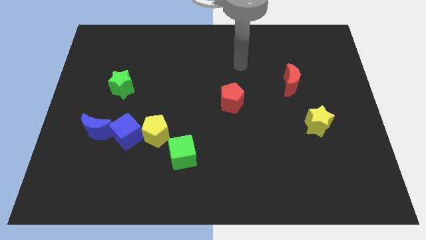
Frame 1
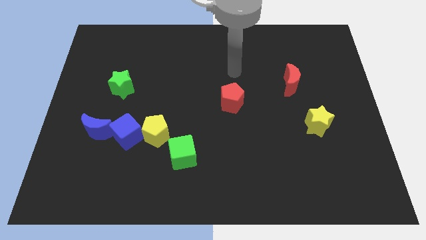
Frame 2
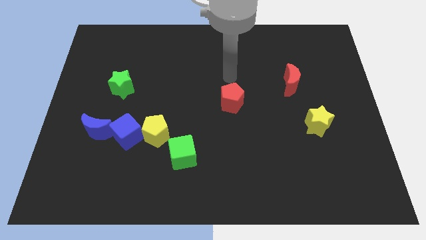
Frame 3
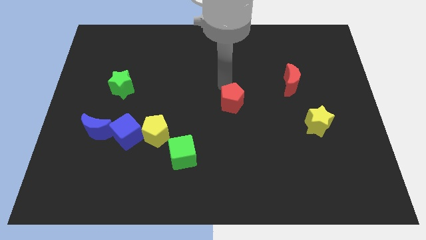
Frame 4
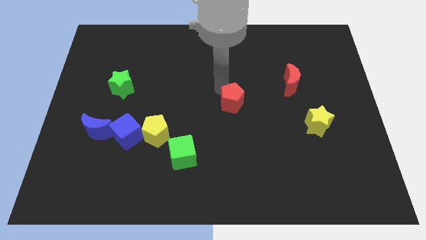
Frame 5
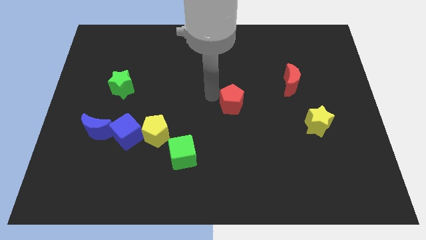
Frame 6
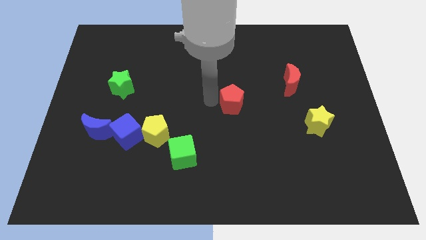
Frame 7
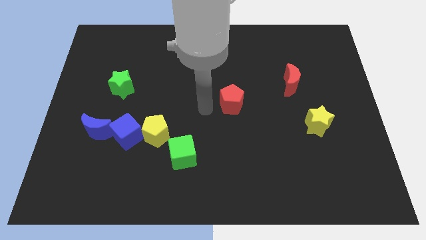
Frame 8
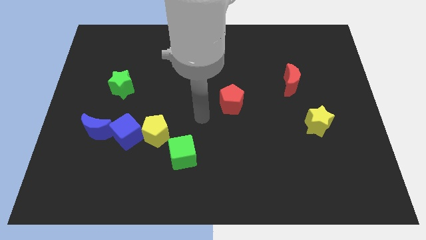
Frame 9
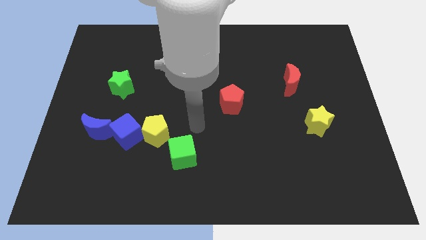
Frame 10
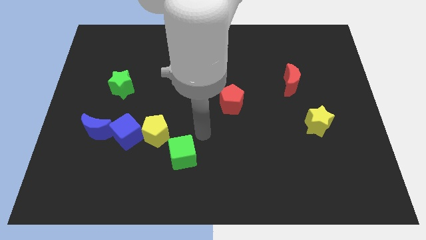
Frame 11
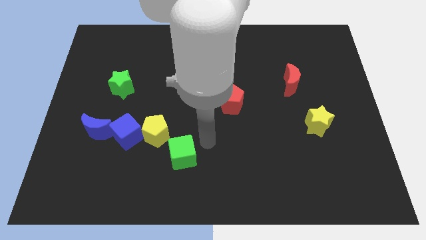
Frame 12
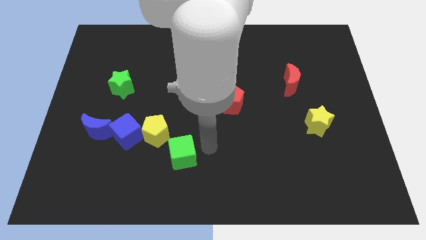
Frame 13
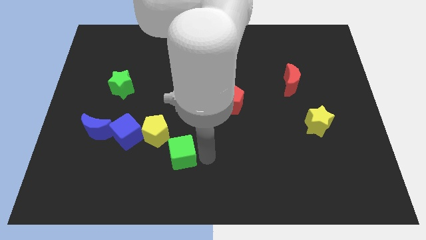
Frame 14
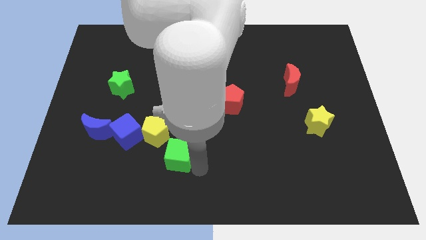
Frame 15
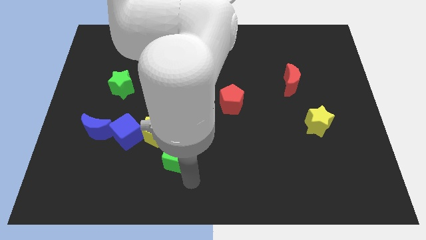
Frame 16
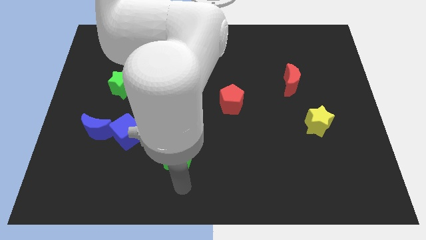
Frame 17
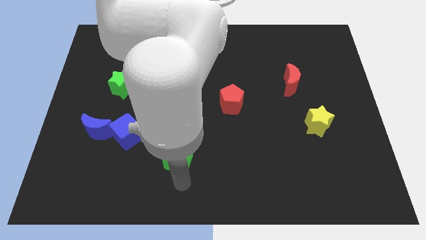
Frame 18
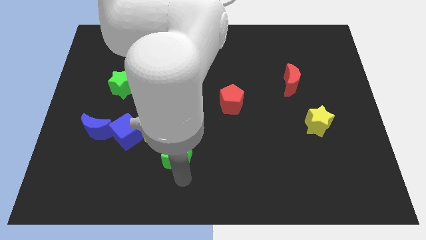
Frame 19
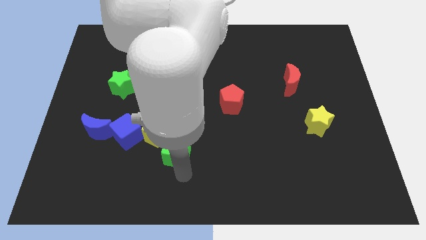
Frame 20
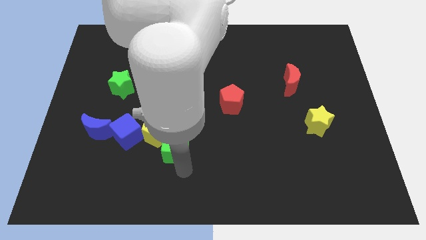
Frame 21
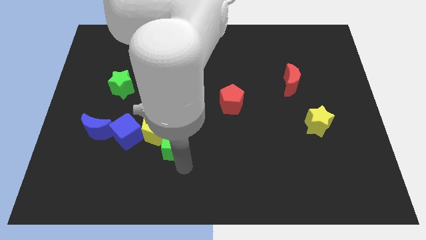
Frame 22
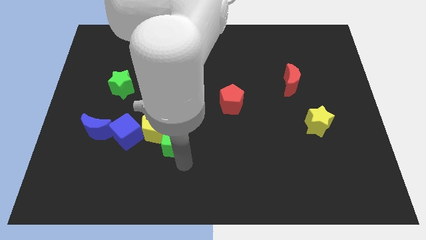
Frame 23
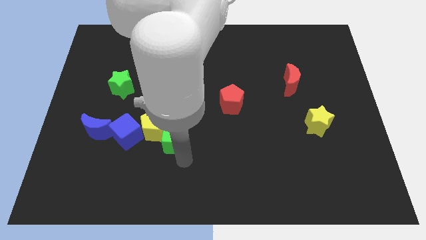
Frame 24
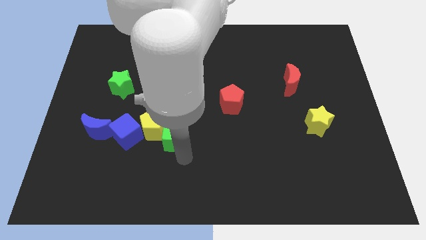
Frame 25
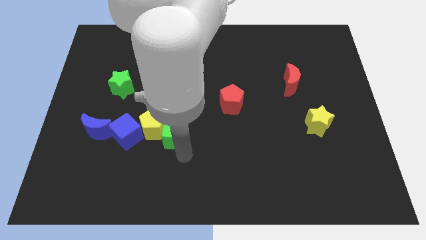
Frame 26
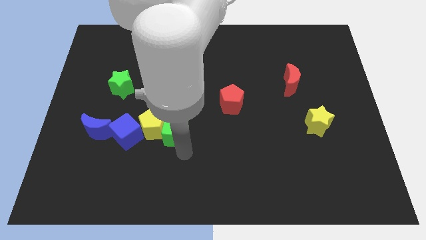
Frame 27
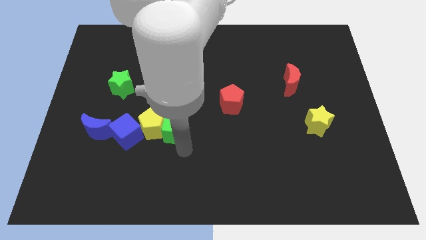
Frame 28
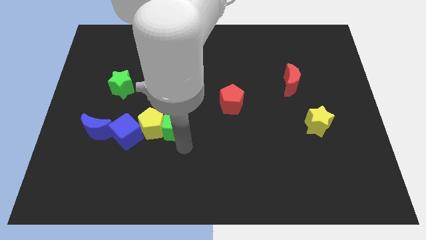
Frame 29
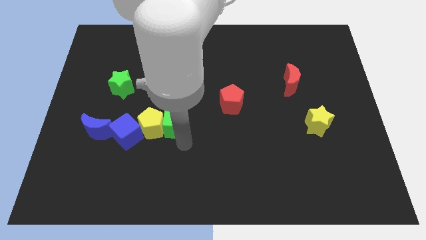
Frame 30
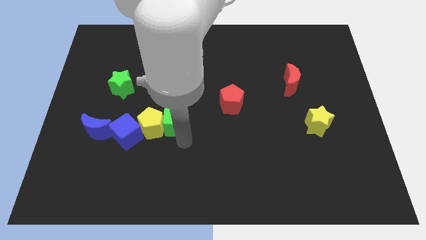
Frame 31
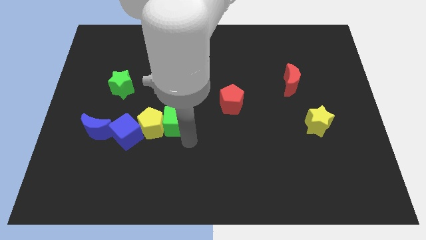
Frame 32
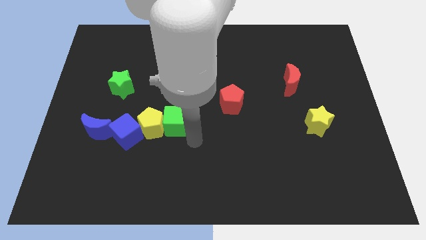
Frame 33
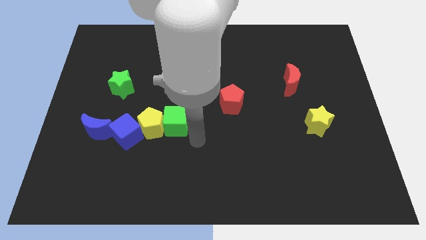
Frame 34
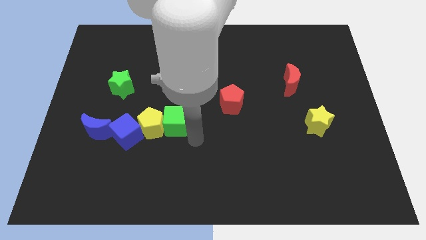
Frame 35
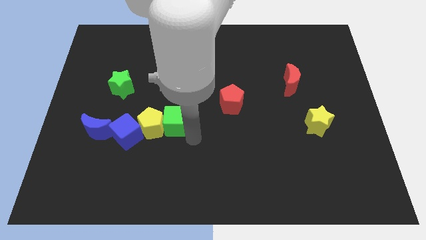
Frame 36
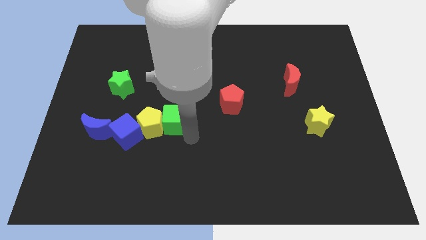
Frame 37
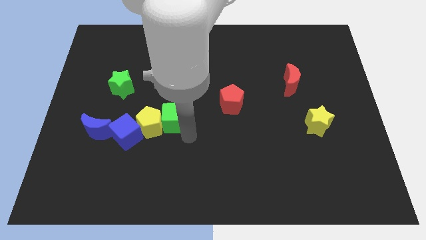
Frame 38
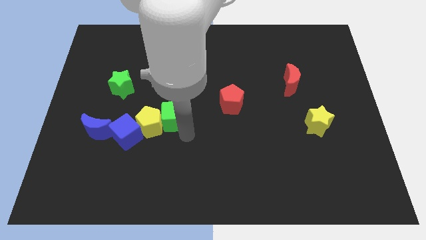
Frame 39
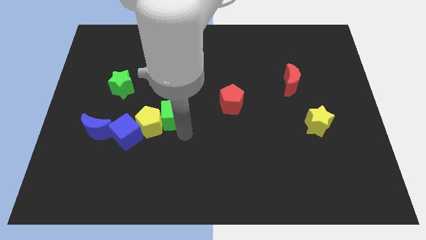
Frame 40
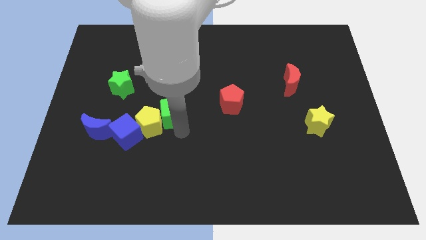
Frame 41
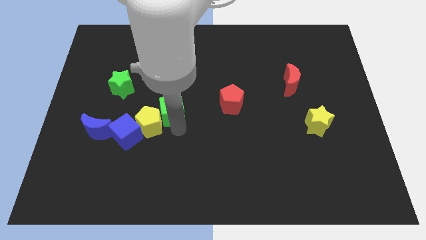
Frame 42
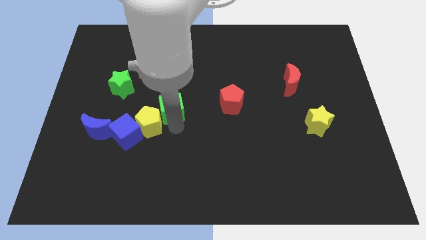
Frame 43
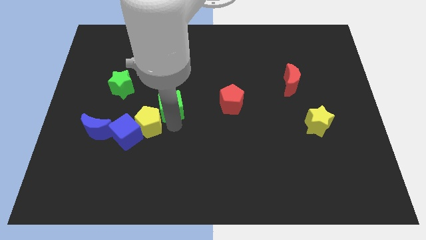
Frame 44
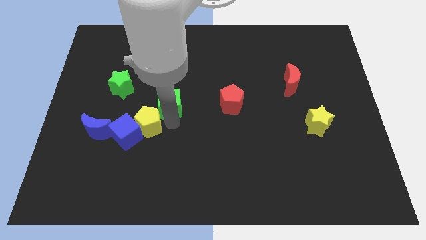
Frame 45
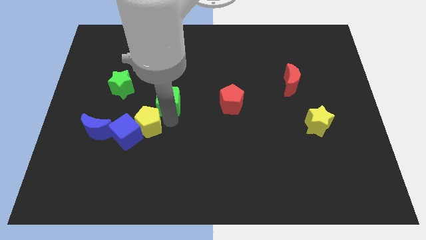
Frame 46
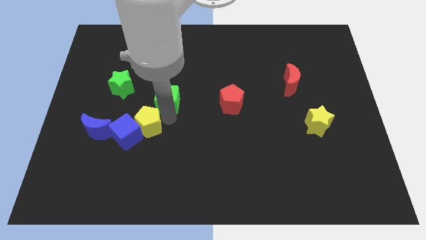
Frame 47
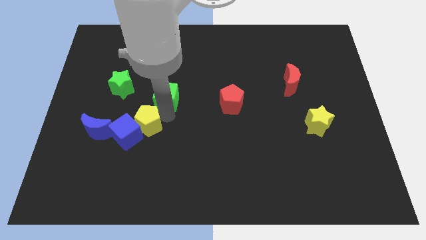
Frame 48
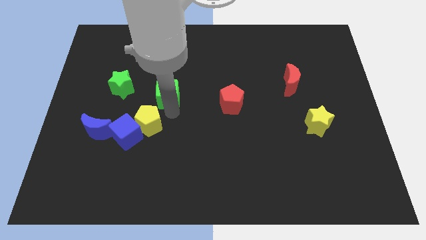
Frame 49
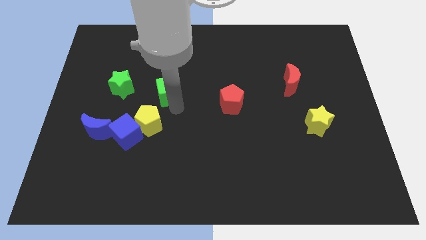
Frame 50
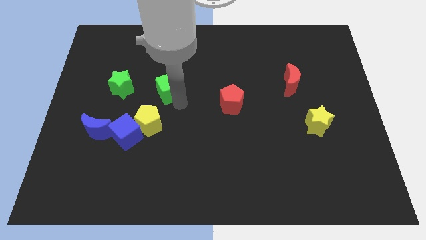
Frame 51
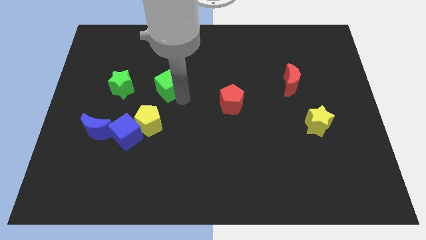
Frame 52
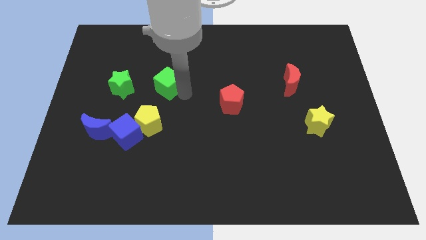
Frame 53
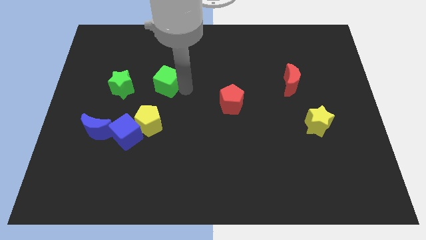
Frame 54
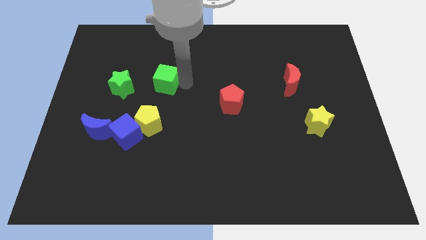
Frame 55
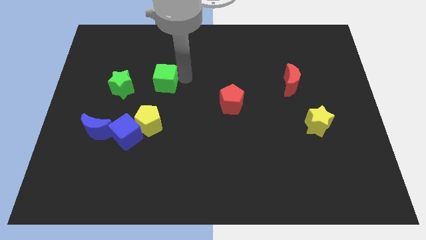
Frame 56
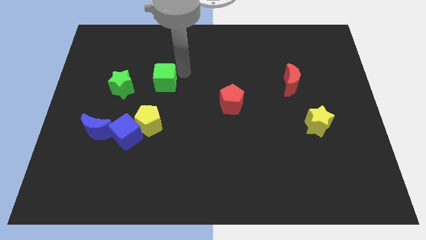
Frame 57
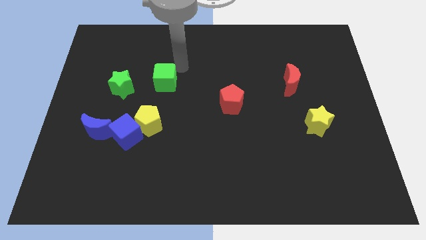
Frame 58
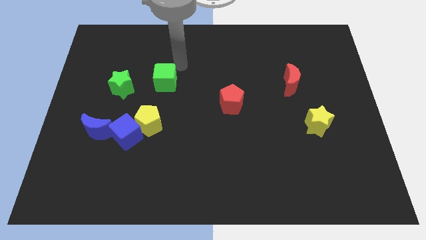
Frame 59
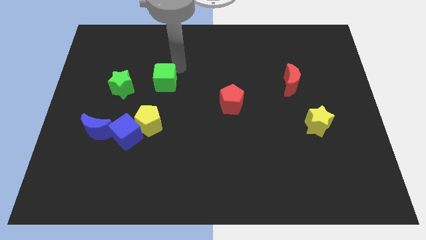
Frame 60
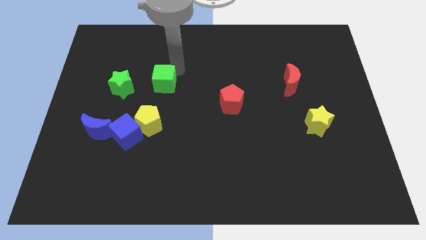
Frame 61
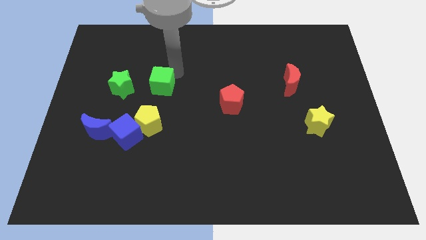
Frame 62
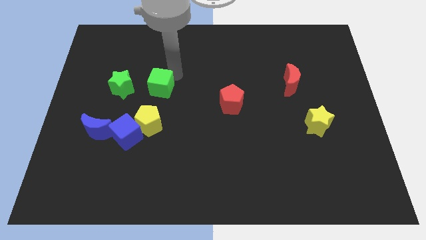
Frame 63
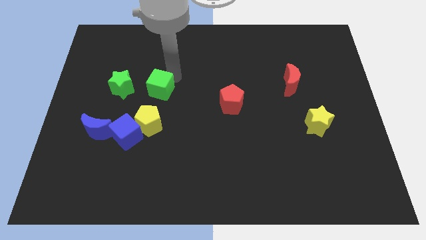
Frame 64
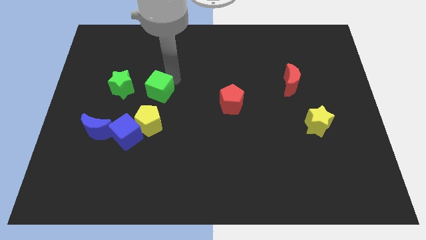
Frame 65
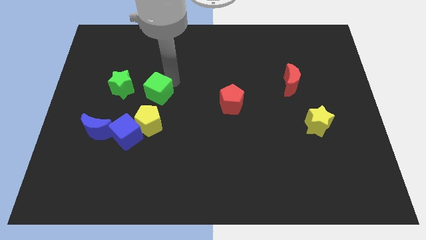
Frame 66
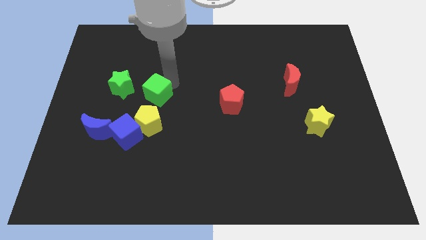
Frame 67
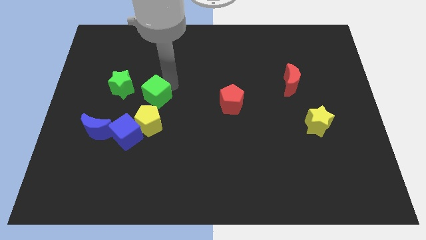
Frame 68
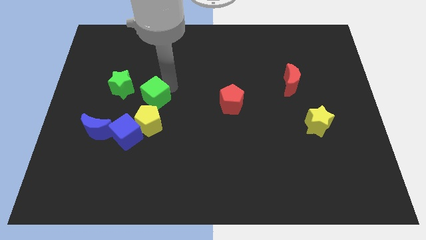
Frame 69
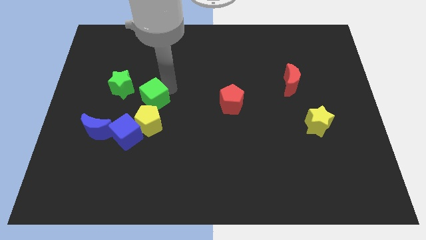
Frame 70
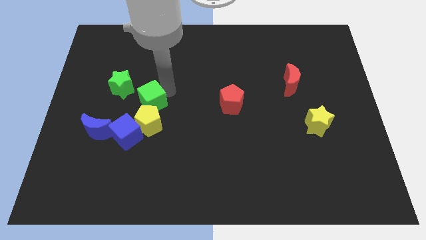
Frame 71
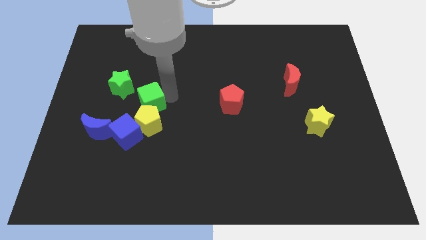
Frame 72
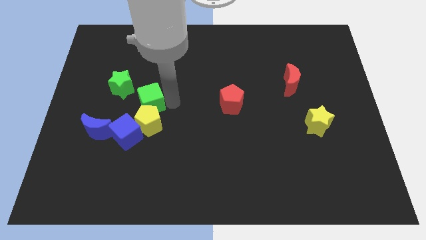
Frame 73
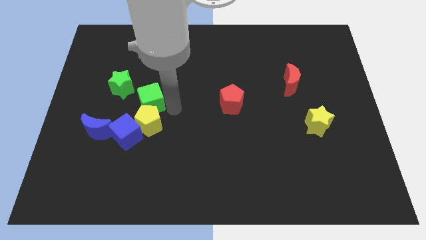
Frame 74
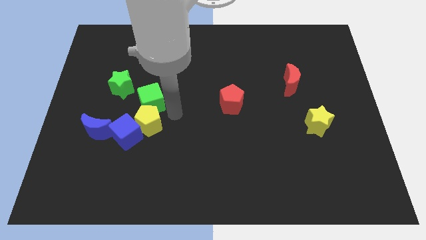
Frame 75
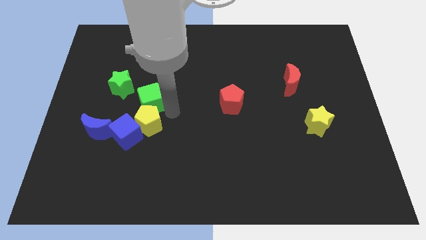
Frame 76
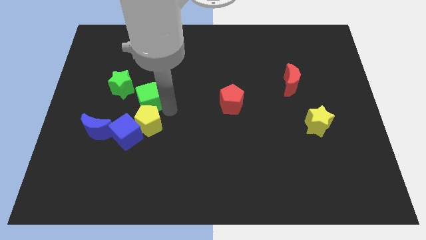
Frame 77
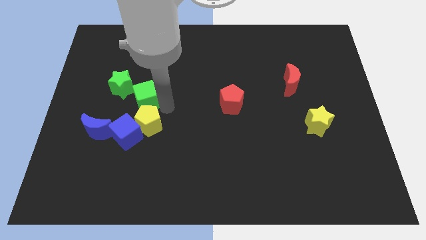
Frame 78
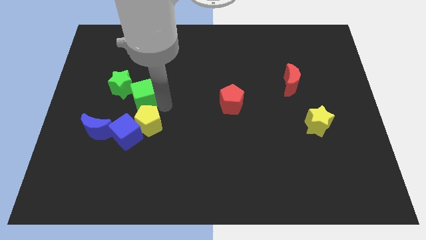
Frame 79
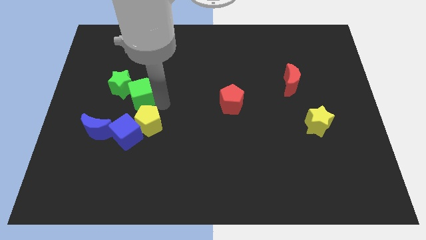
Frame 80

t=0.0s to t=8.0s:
push the green cube to the green star
